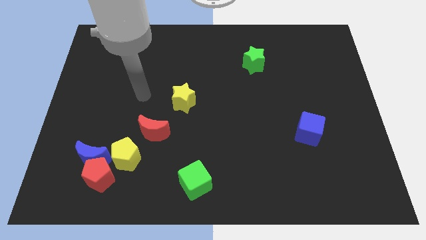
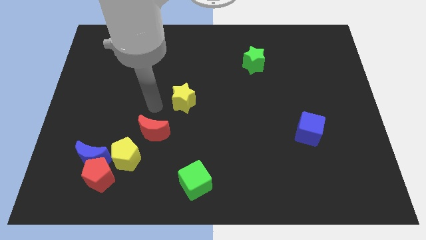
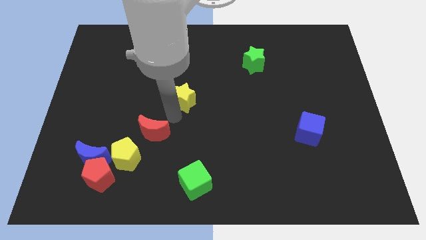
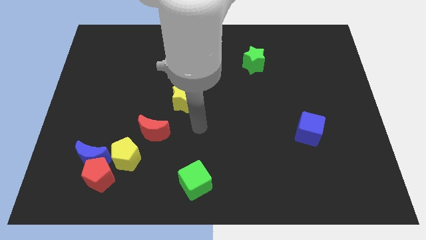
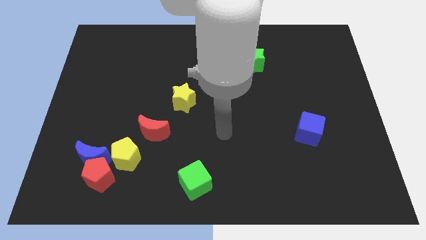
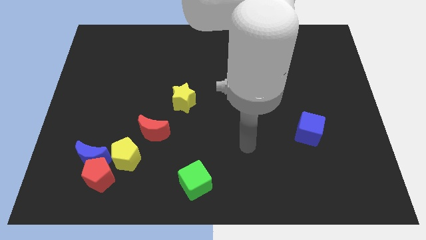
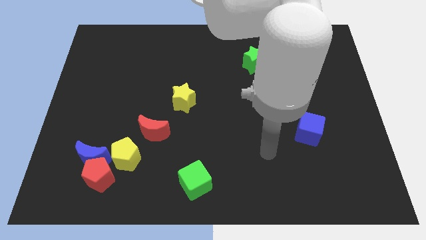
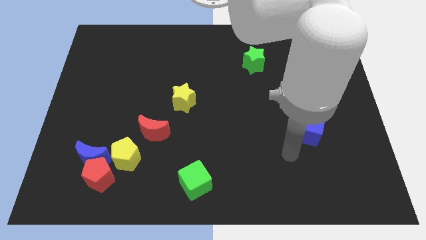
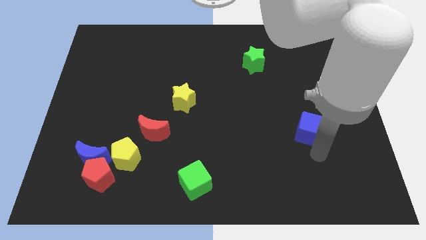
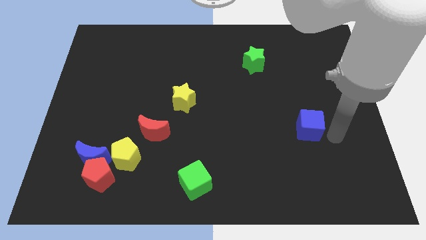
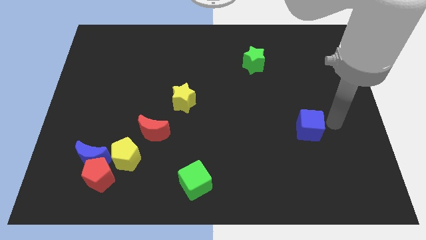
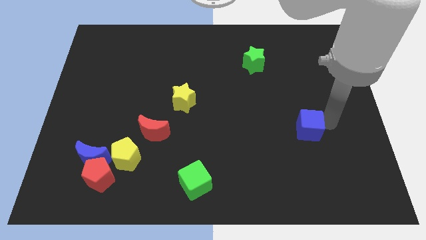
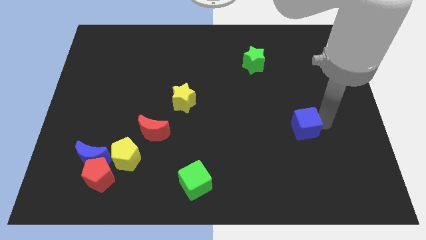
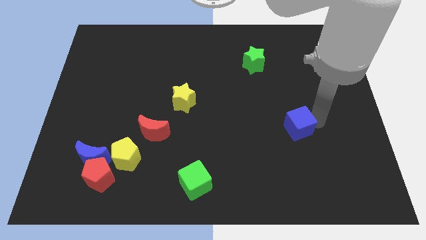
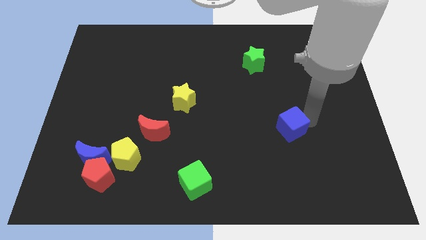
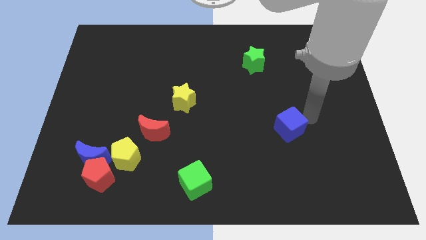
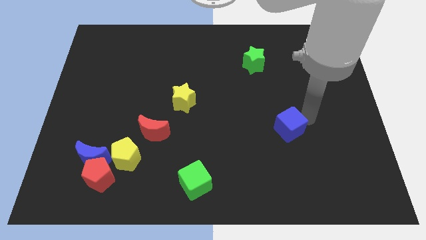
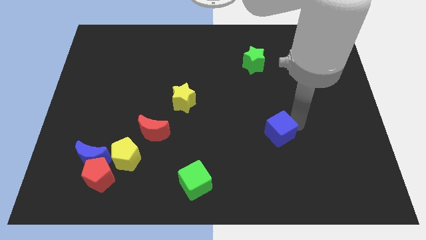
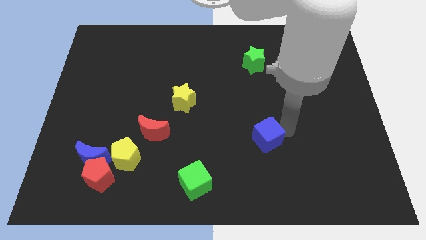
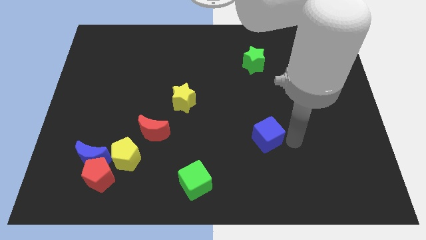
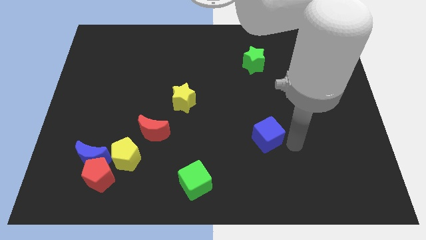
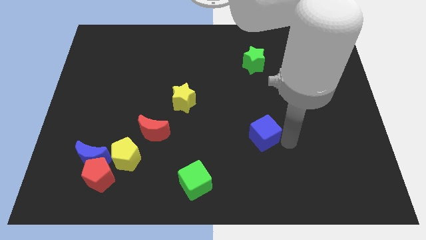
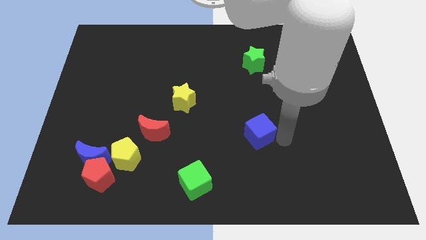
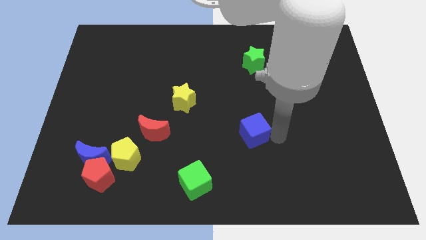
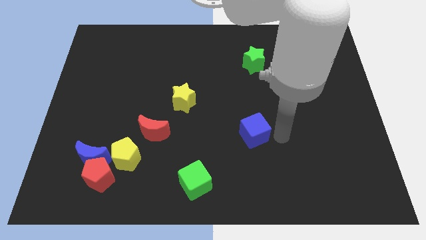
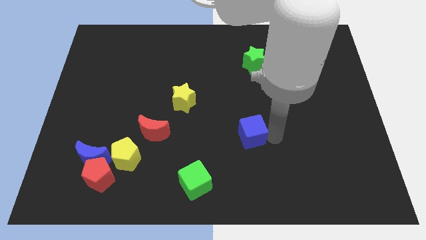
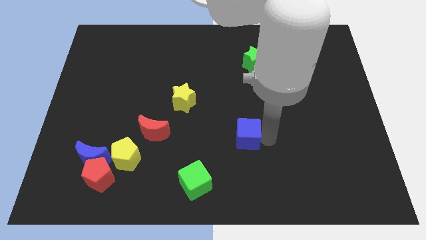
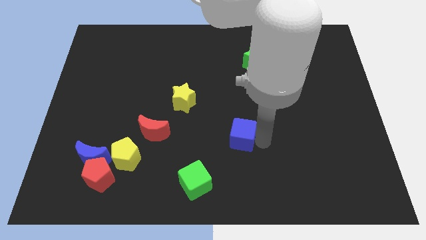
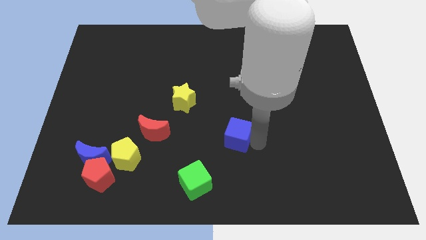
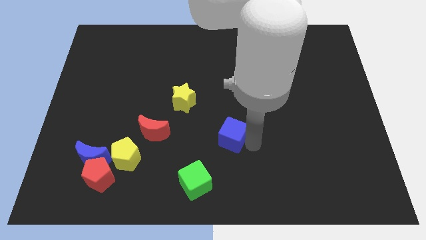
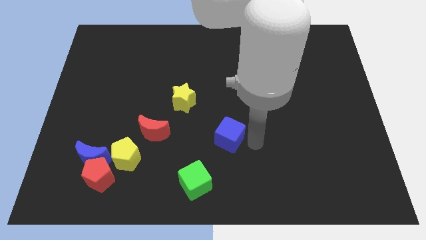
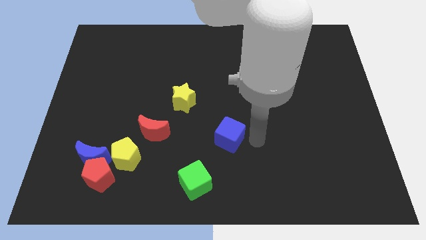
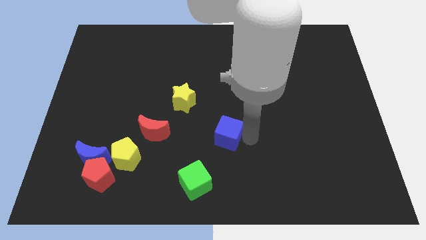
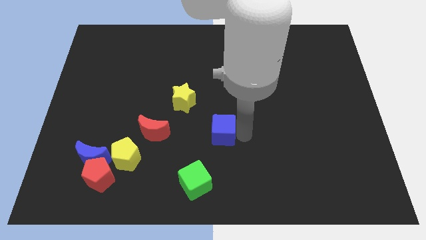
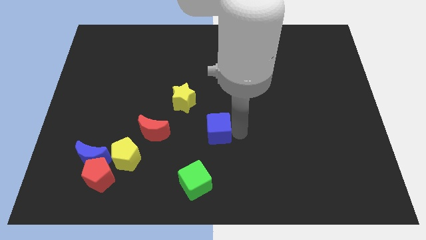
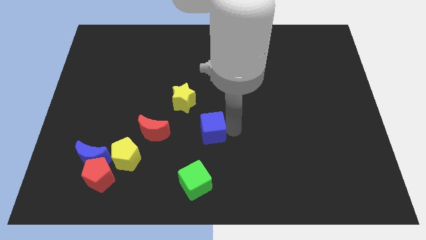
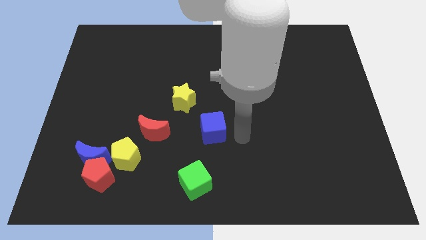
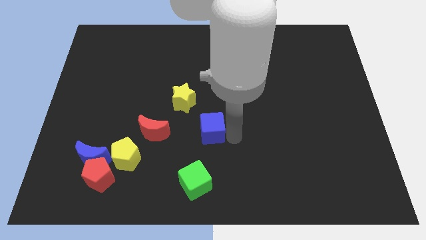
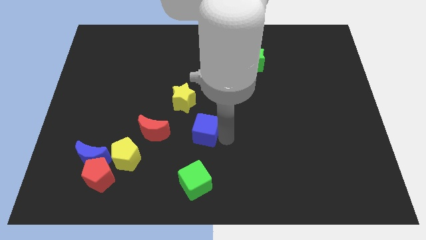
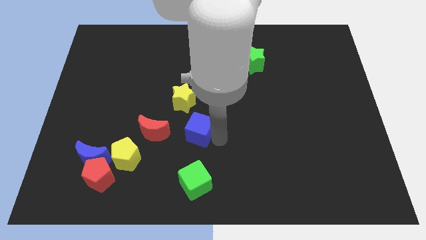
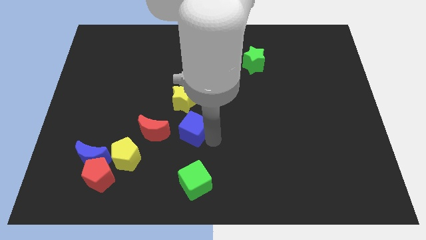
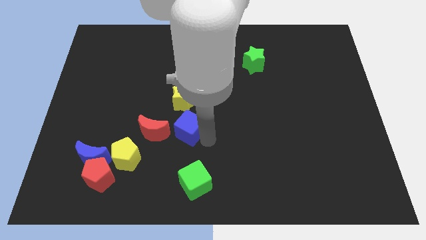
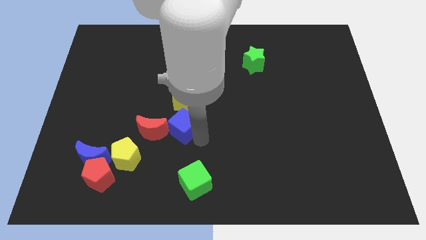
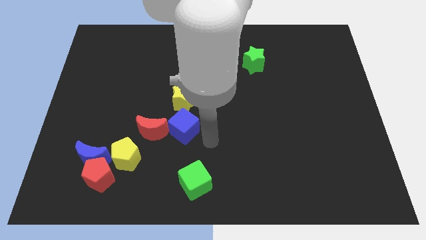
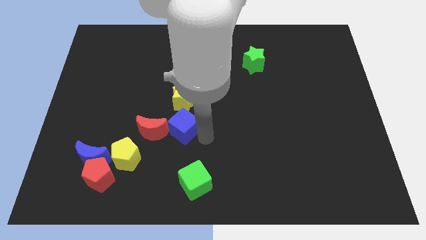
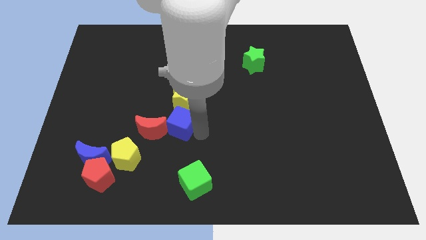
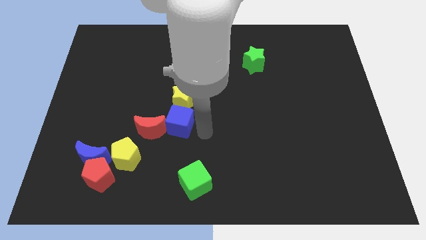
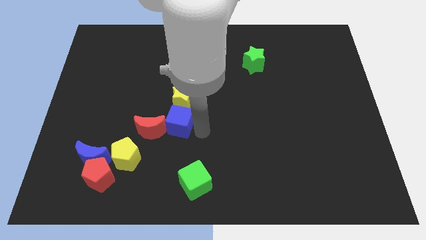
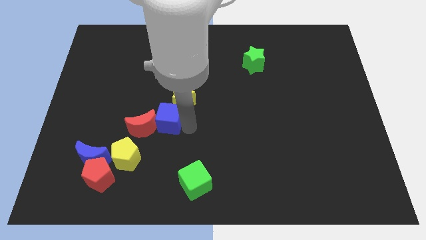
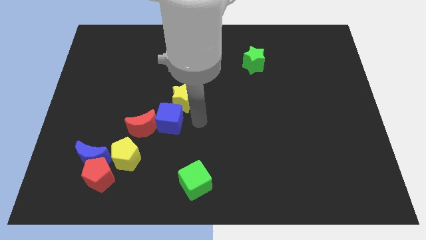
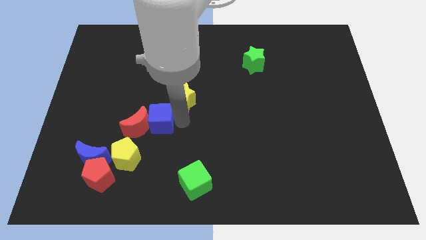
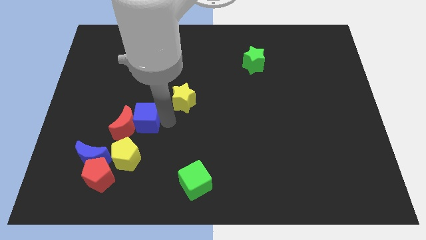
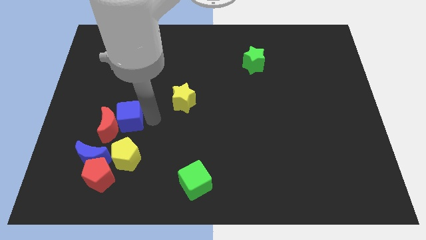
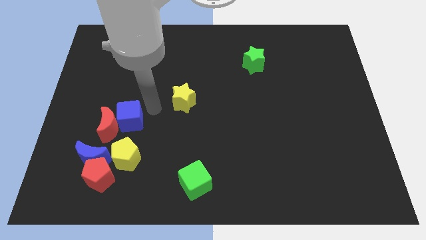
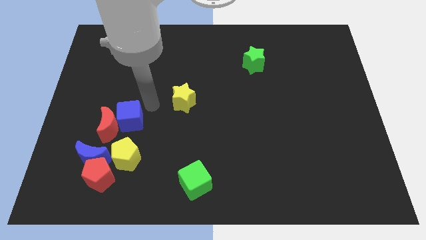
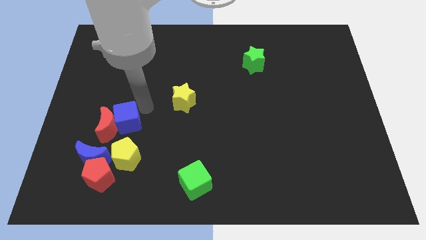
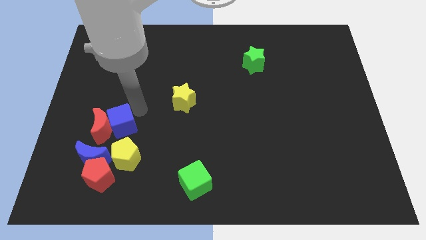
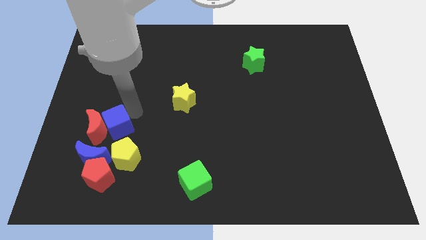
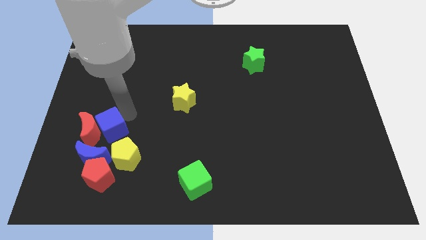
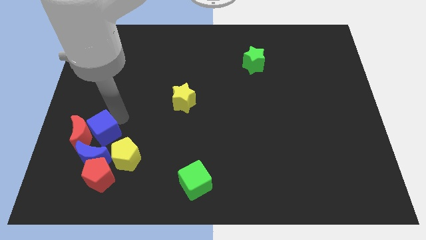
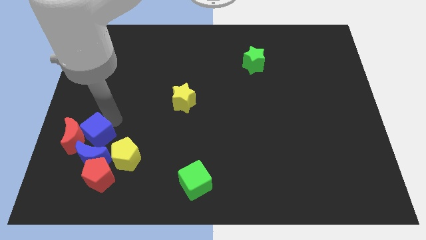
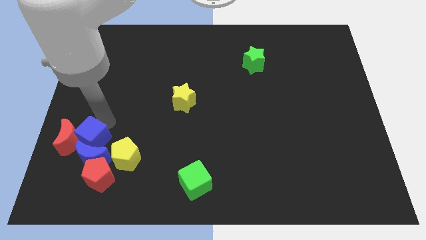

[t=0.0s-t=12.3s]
put the blue cube diagonally up and to the left of the red pentagon
